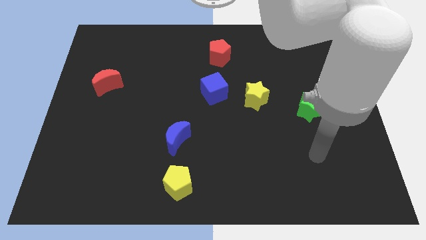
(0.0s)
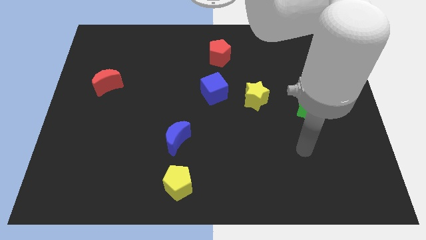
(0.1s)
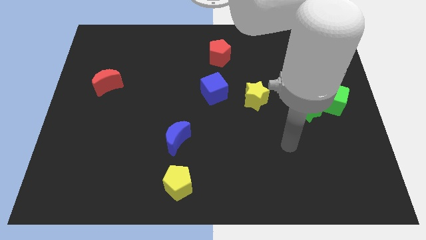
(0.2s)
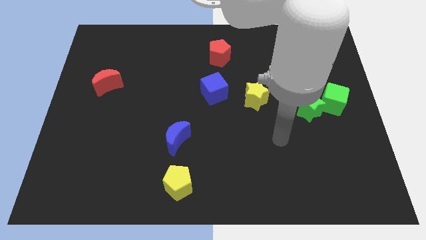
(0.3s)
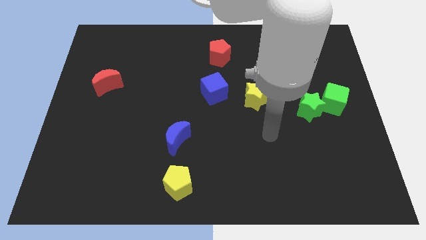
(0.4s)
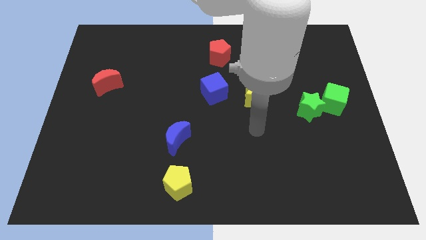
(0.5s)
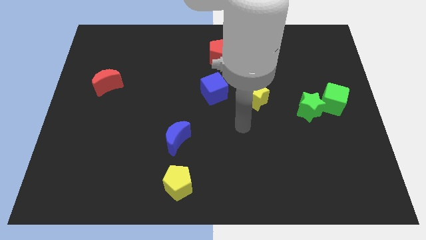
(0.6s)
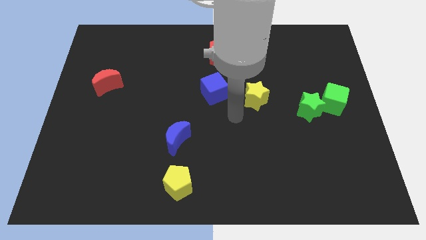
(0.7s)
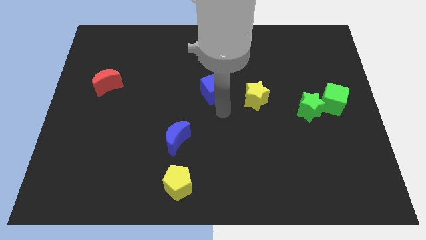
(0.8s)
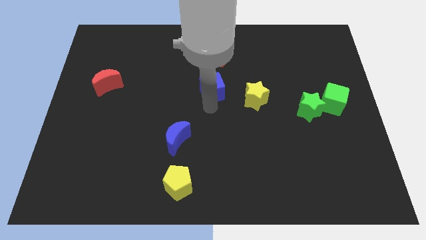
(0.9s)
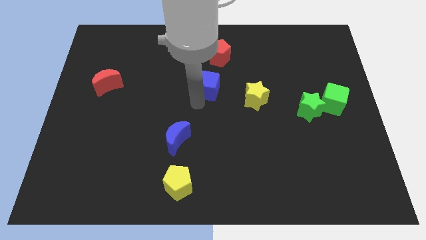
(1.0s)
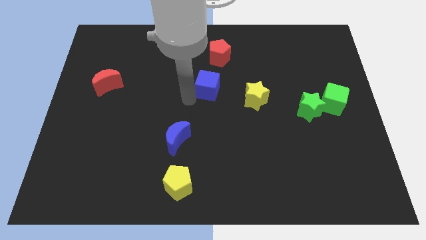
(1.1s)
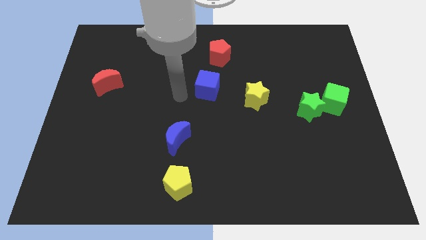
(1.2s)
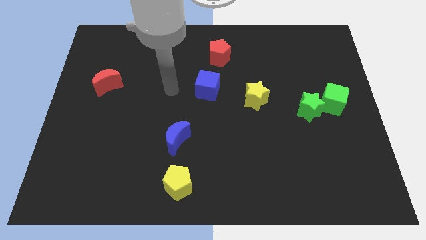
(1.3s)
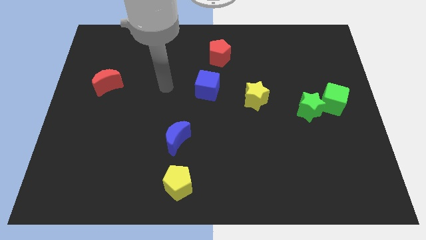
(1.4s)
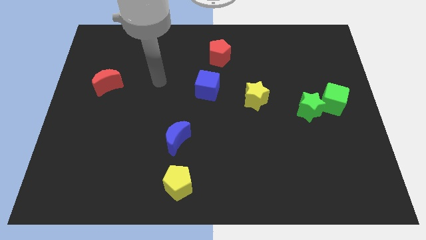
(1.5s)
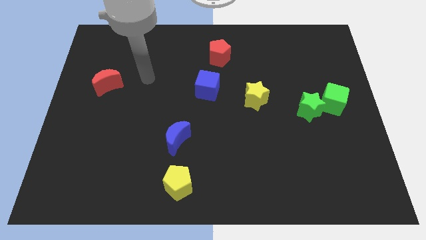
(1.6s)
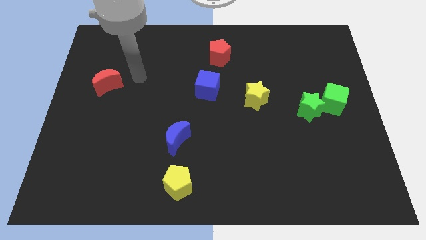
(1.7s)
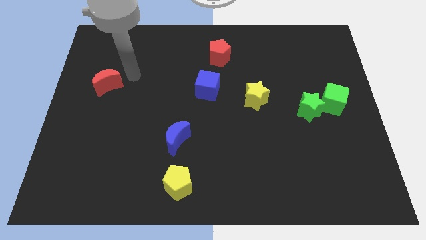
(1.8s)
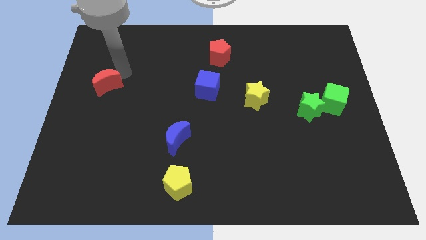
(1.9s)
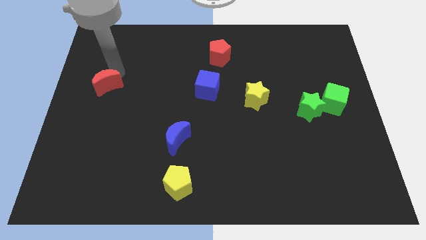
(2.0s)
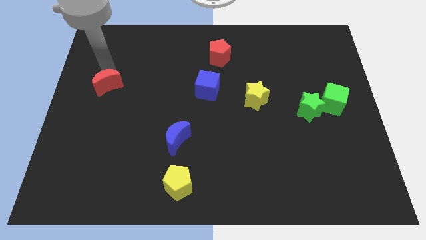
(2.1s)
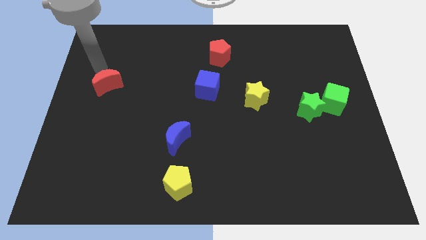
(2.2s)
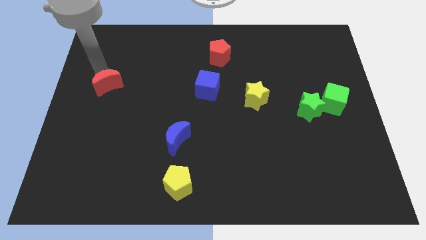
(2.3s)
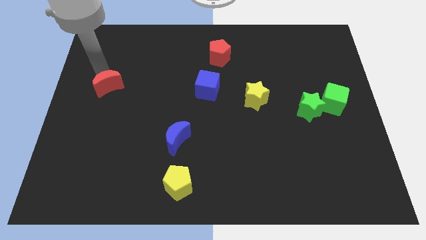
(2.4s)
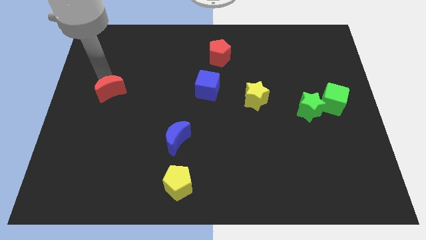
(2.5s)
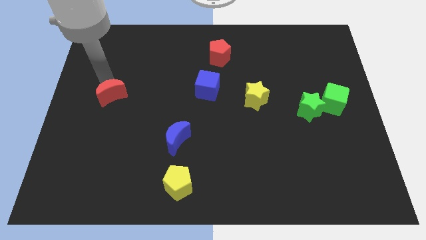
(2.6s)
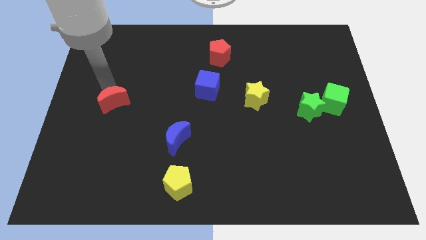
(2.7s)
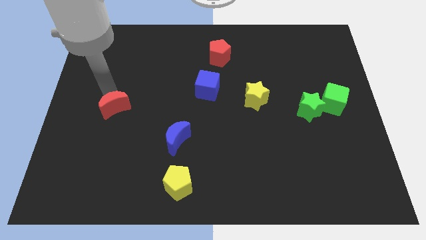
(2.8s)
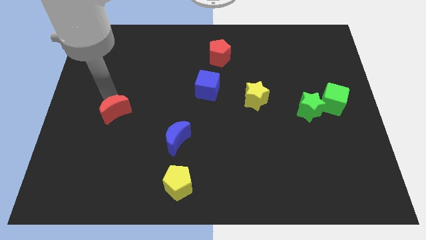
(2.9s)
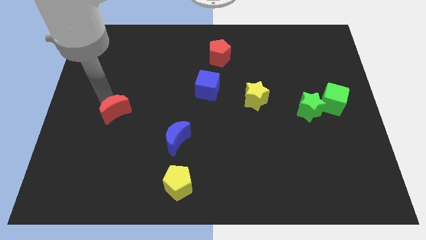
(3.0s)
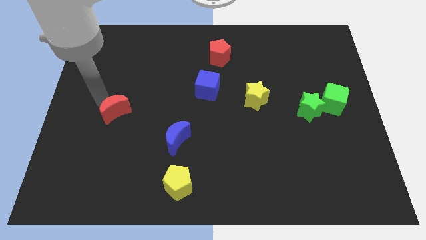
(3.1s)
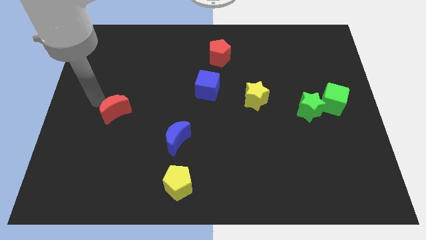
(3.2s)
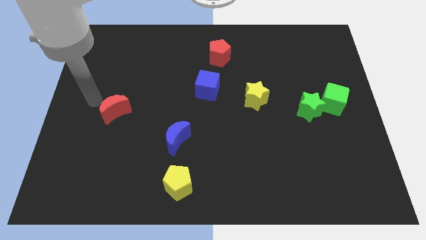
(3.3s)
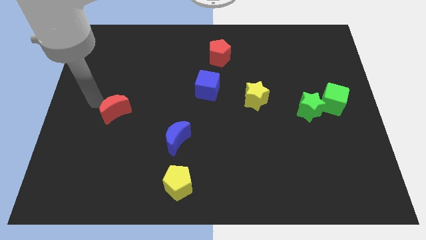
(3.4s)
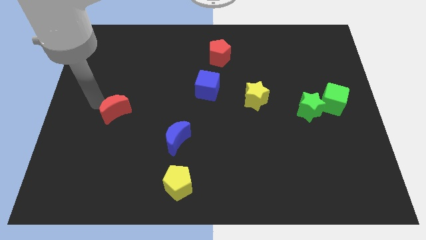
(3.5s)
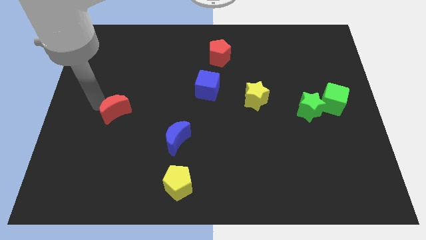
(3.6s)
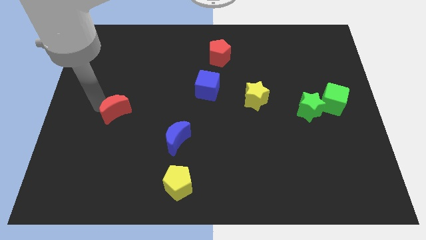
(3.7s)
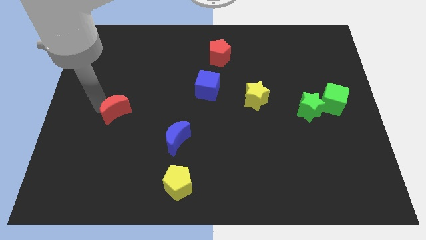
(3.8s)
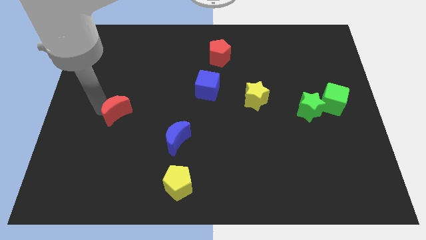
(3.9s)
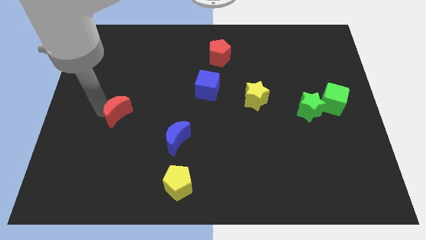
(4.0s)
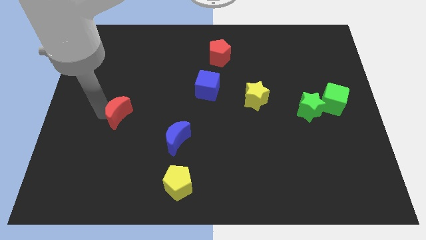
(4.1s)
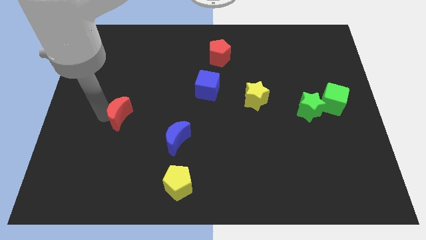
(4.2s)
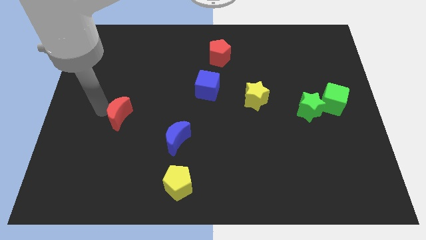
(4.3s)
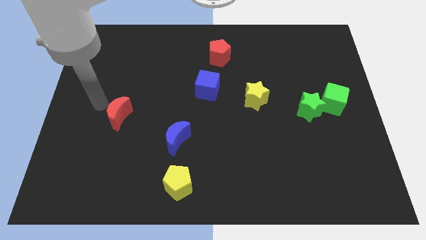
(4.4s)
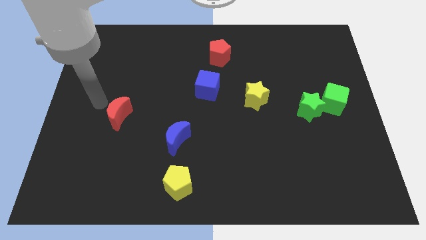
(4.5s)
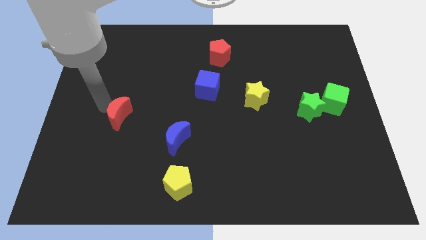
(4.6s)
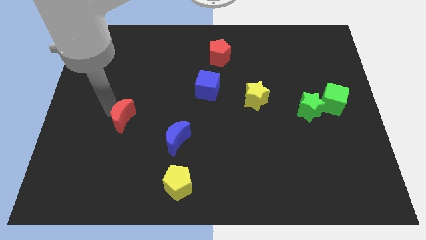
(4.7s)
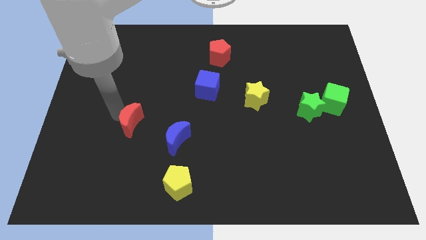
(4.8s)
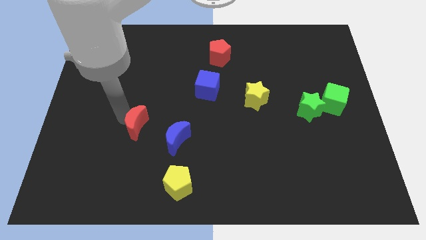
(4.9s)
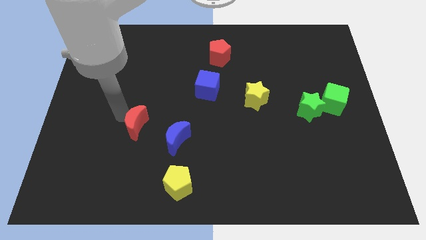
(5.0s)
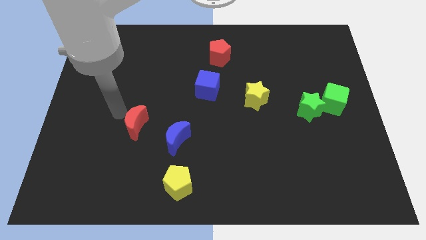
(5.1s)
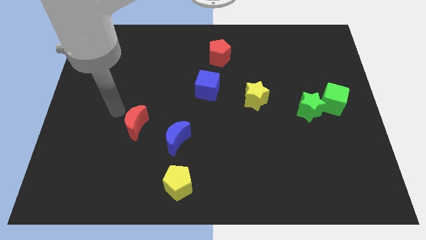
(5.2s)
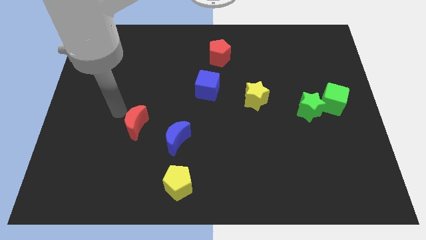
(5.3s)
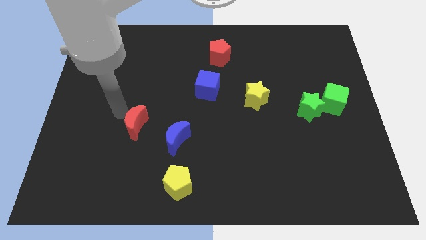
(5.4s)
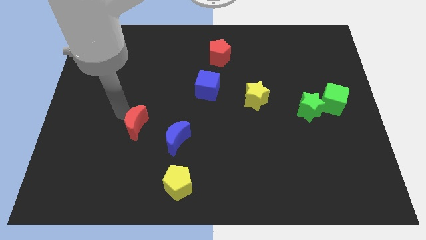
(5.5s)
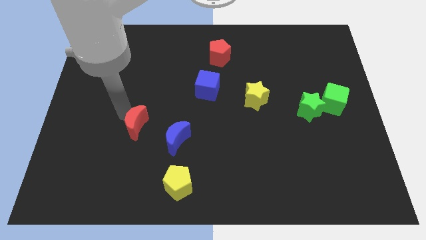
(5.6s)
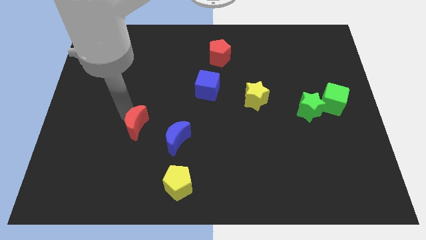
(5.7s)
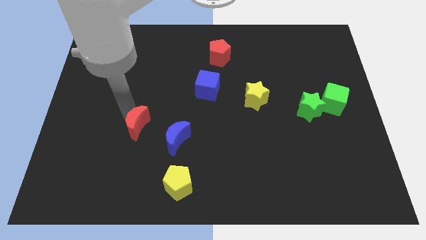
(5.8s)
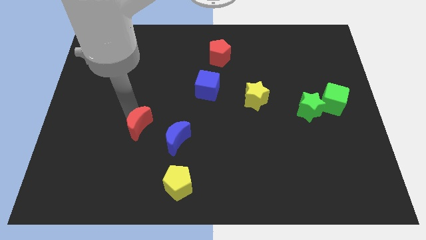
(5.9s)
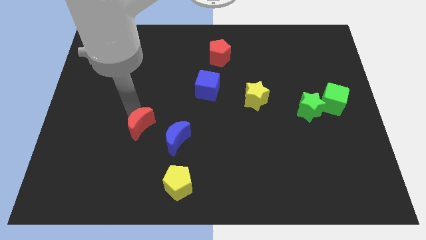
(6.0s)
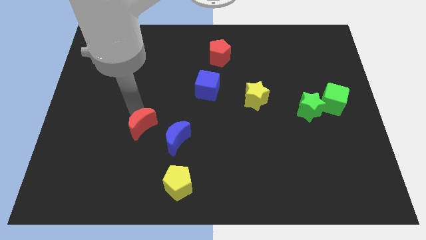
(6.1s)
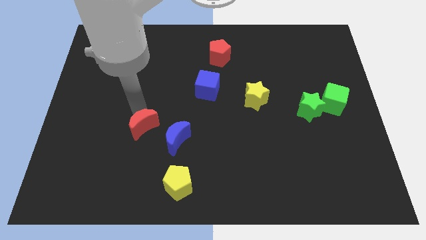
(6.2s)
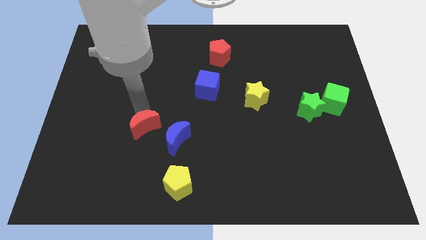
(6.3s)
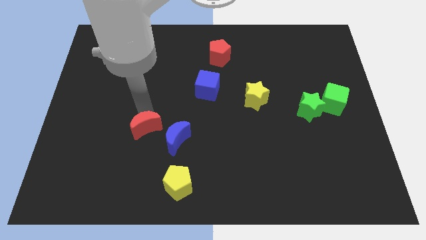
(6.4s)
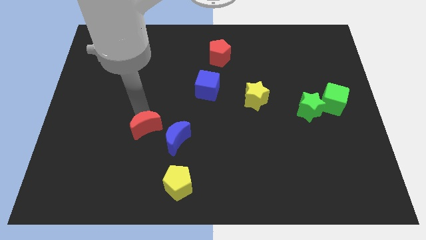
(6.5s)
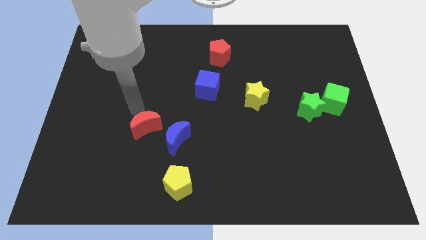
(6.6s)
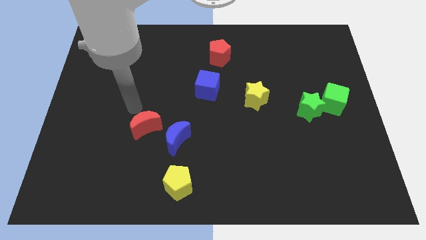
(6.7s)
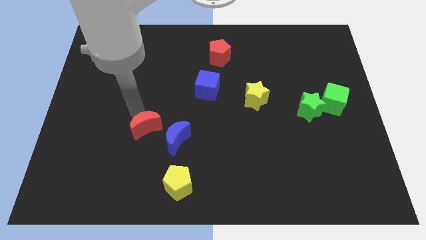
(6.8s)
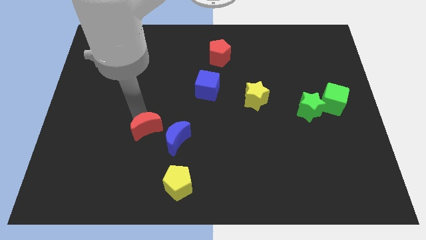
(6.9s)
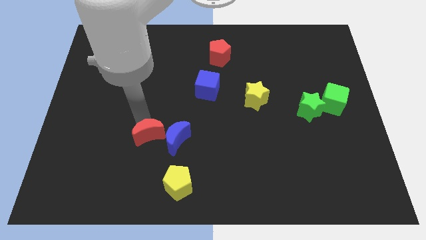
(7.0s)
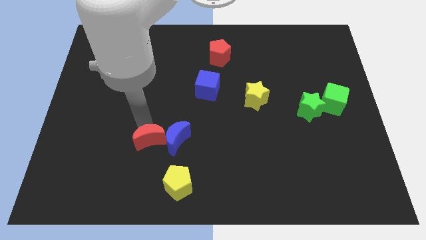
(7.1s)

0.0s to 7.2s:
move the red moon down and then right

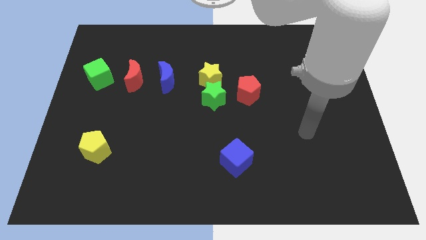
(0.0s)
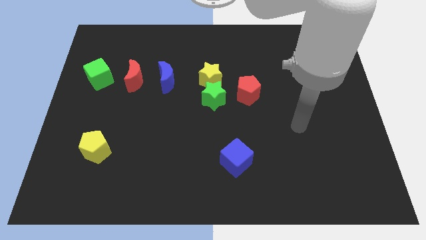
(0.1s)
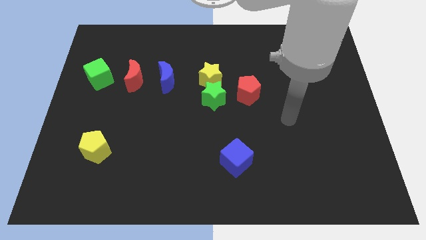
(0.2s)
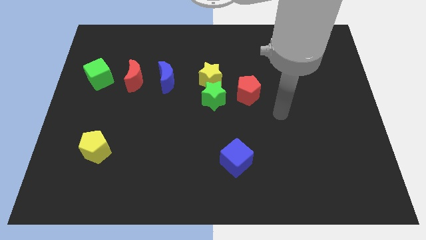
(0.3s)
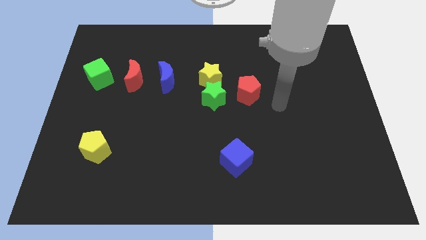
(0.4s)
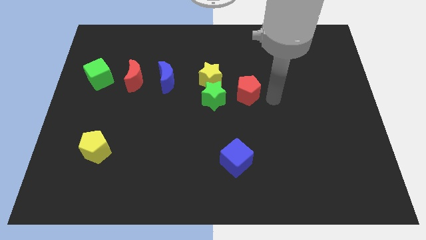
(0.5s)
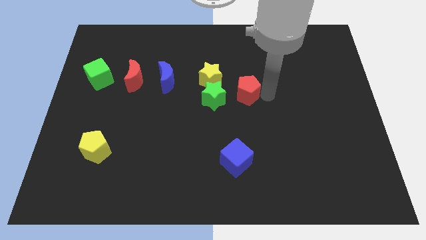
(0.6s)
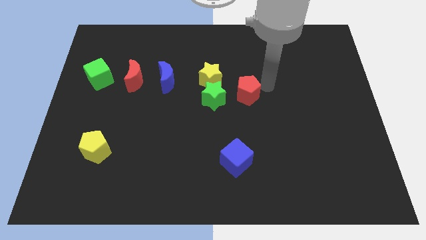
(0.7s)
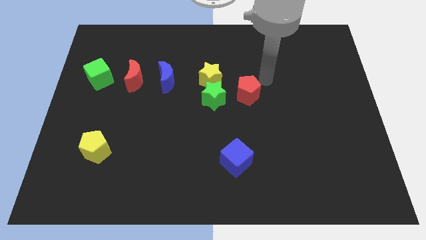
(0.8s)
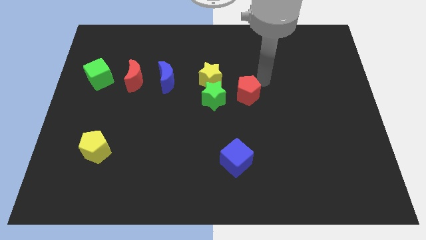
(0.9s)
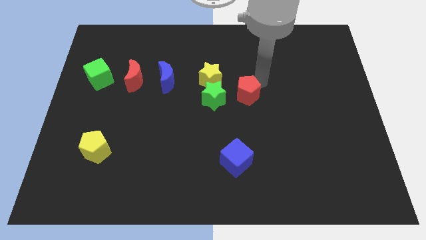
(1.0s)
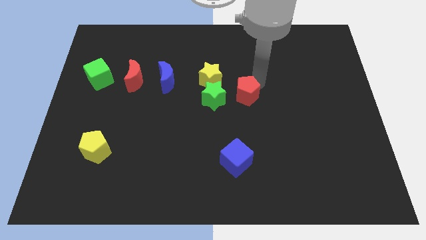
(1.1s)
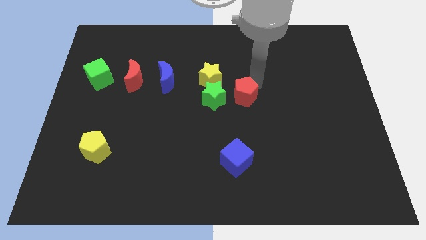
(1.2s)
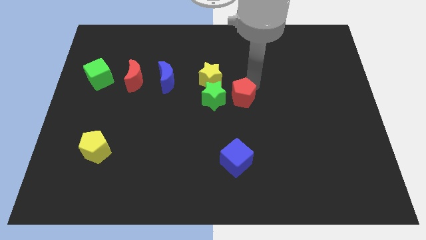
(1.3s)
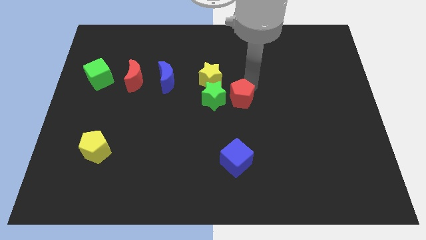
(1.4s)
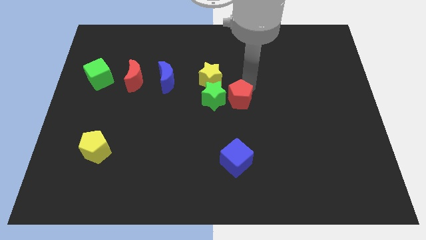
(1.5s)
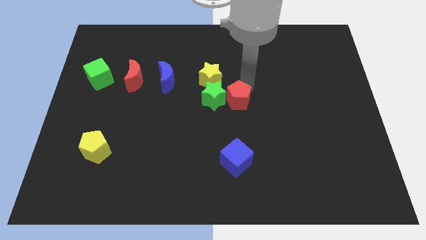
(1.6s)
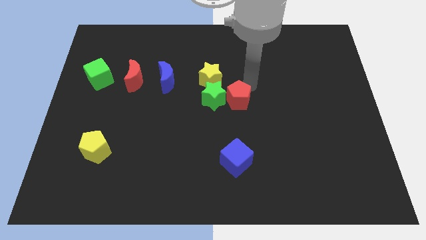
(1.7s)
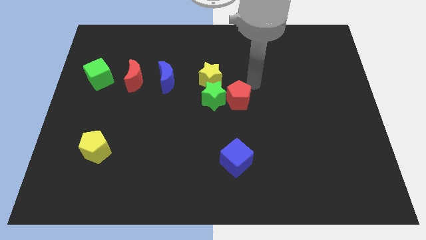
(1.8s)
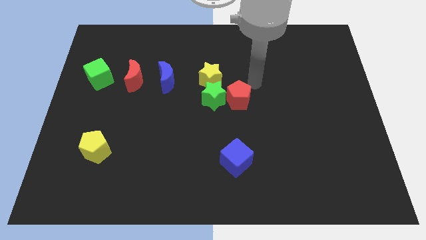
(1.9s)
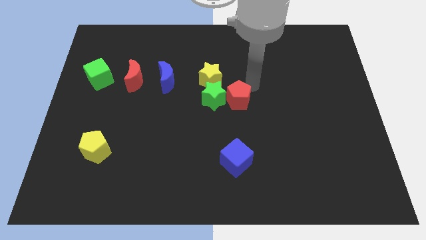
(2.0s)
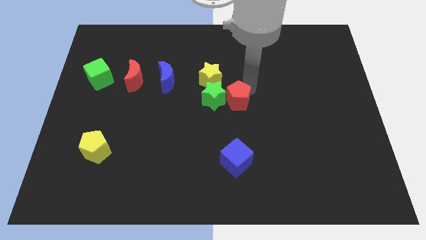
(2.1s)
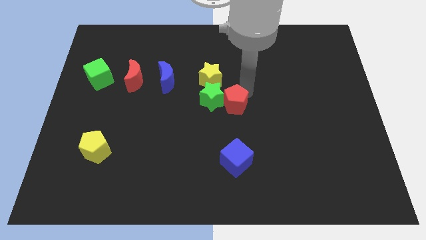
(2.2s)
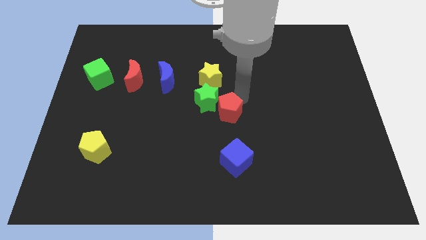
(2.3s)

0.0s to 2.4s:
move the red pentagon a little bit down and to the left
